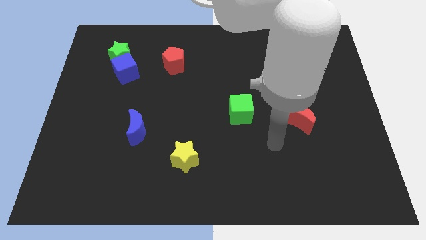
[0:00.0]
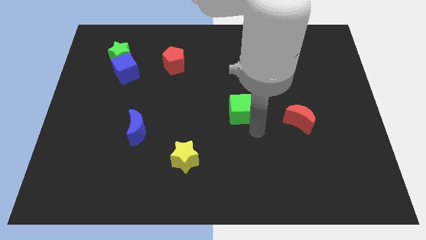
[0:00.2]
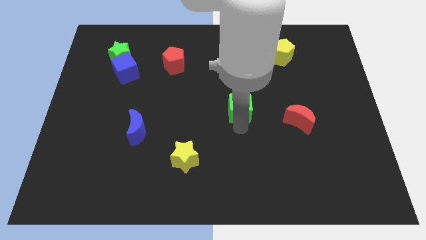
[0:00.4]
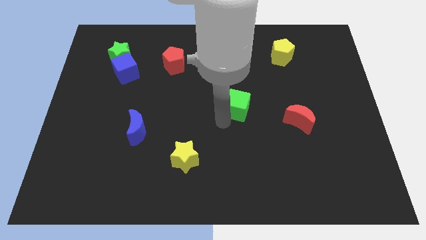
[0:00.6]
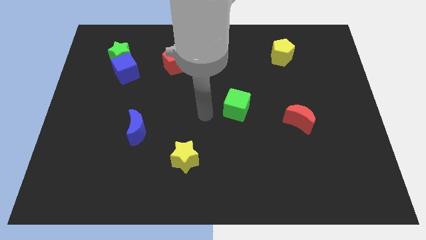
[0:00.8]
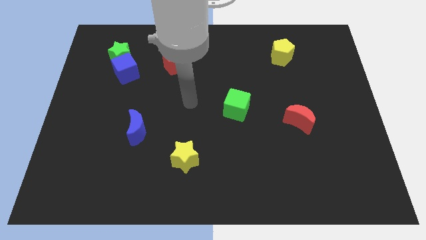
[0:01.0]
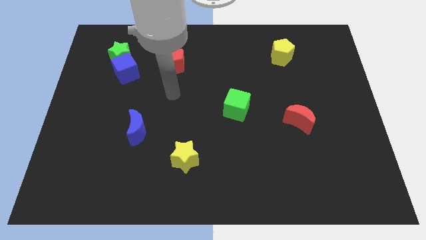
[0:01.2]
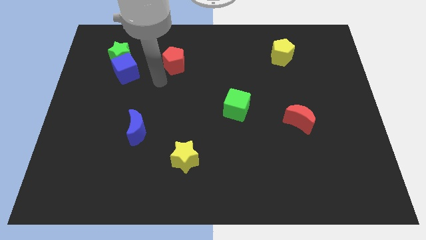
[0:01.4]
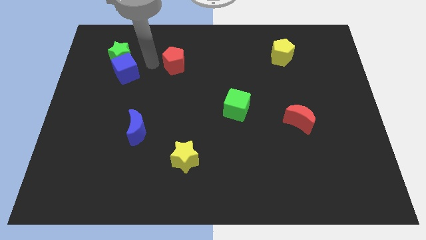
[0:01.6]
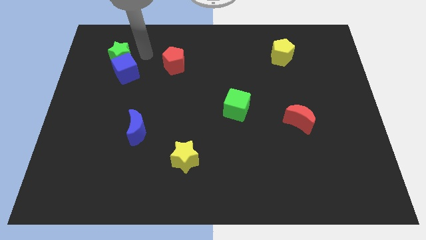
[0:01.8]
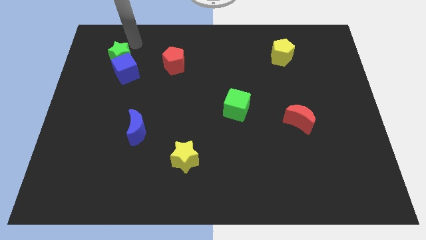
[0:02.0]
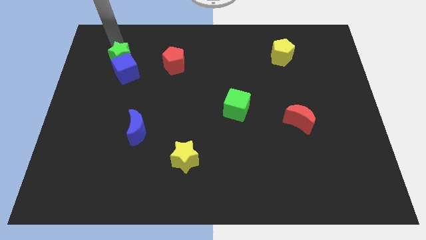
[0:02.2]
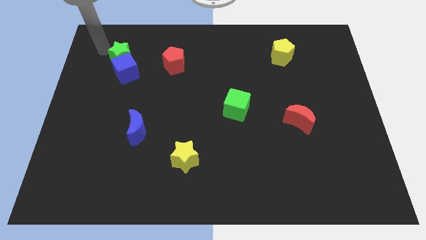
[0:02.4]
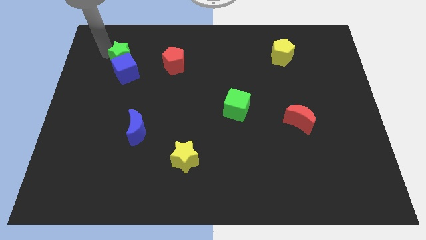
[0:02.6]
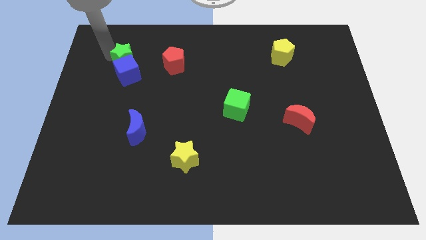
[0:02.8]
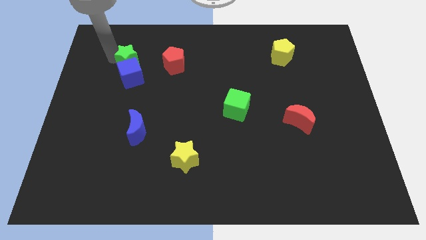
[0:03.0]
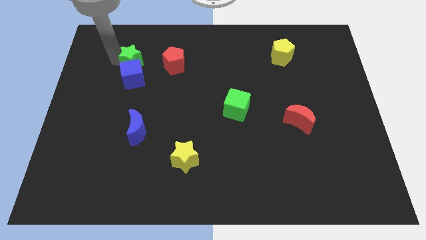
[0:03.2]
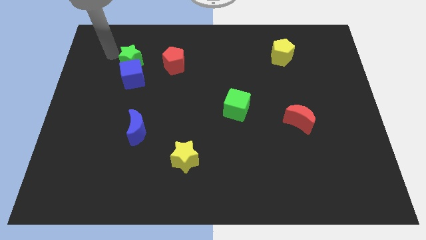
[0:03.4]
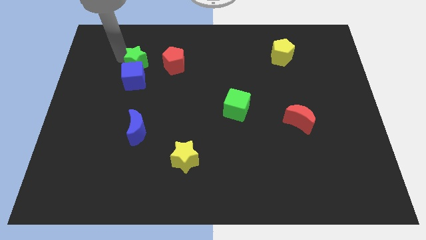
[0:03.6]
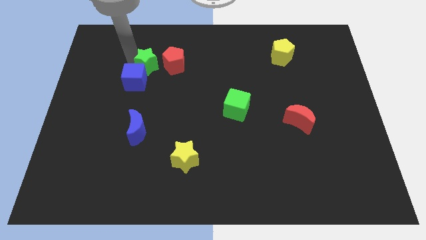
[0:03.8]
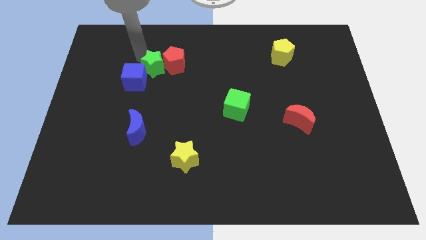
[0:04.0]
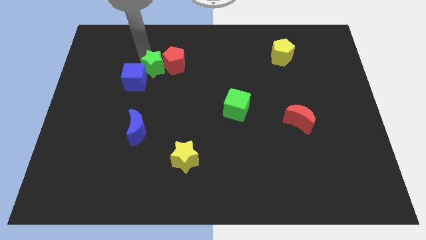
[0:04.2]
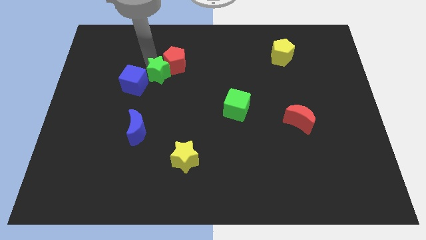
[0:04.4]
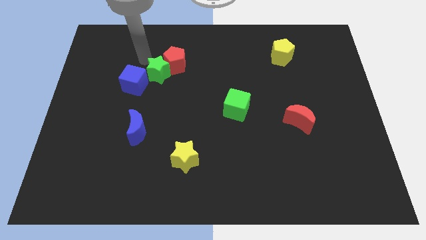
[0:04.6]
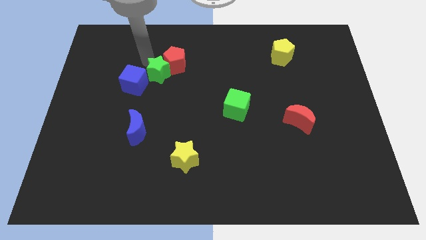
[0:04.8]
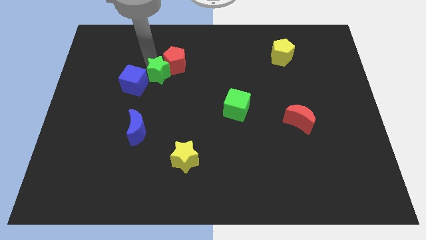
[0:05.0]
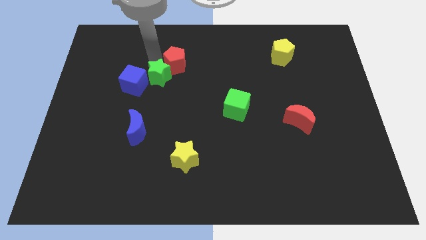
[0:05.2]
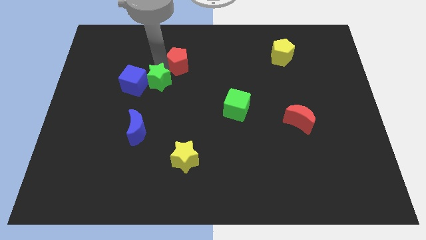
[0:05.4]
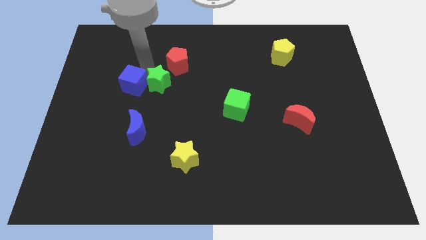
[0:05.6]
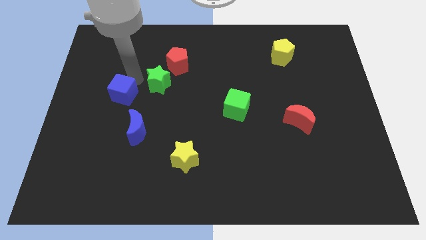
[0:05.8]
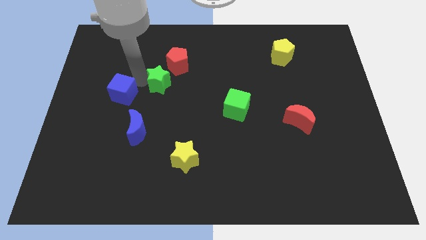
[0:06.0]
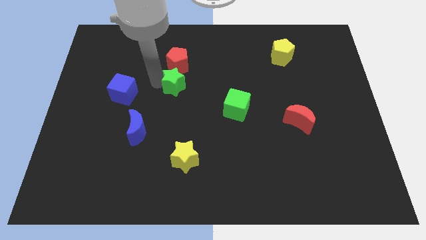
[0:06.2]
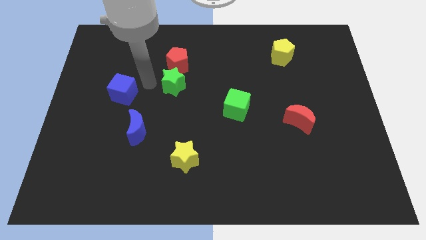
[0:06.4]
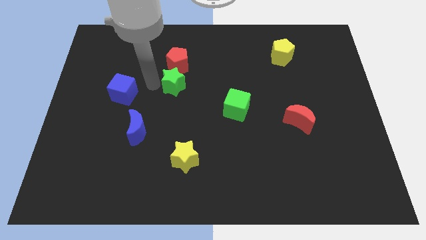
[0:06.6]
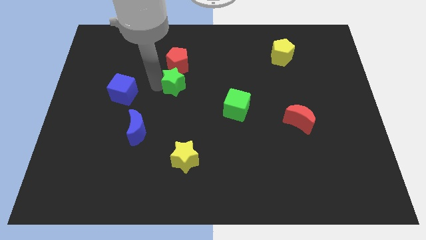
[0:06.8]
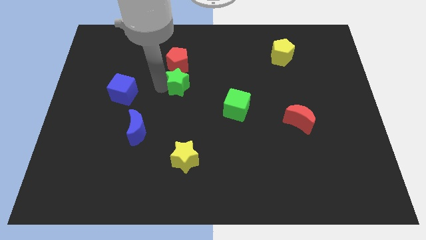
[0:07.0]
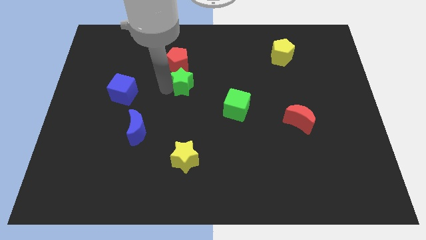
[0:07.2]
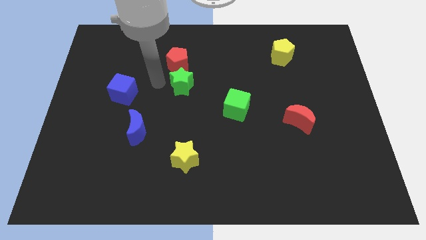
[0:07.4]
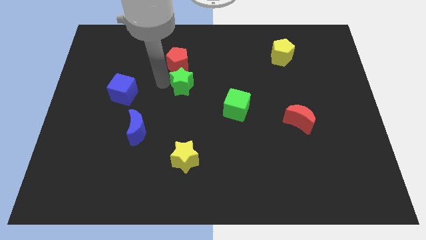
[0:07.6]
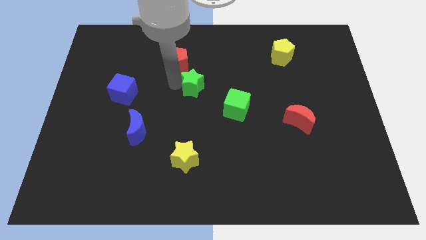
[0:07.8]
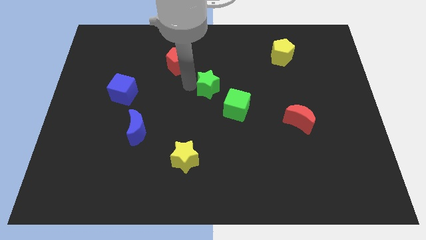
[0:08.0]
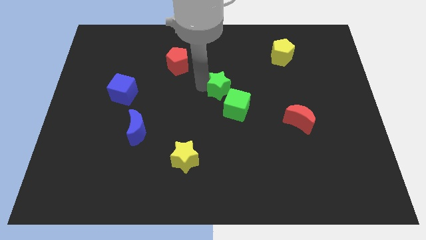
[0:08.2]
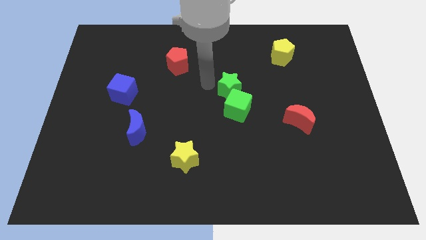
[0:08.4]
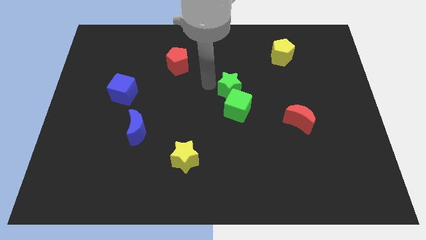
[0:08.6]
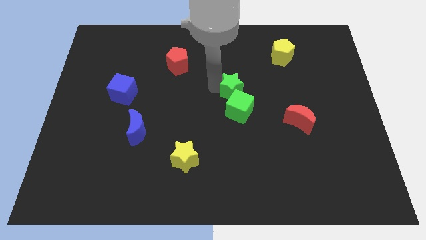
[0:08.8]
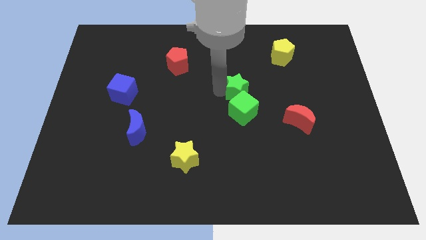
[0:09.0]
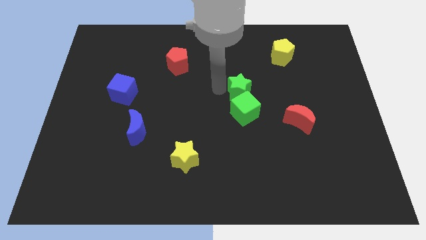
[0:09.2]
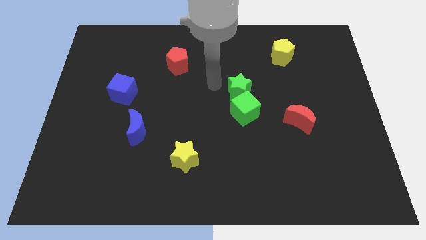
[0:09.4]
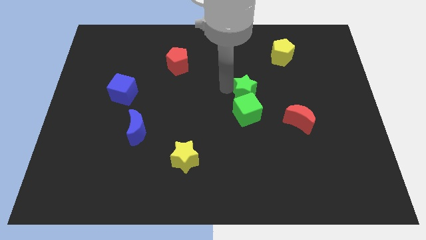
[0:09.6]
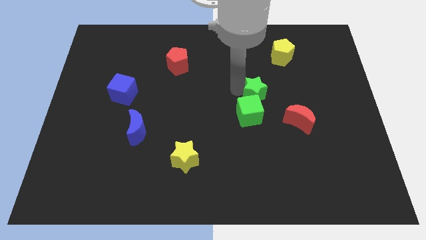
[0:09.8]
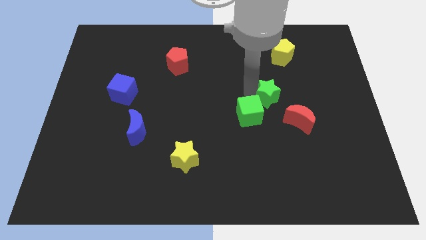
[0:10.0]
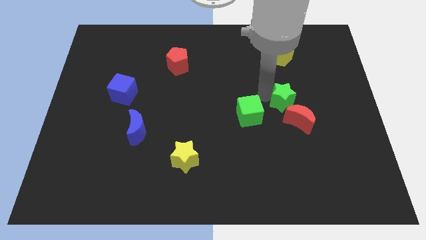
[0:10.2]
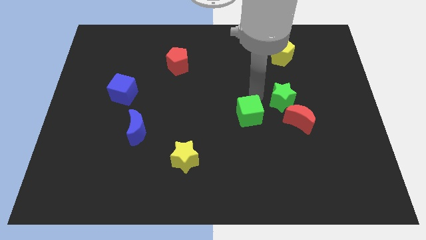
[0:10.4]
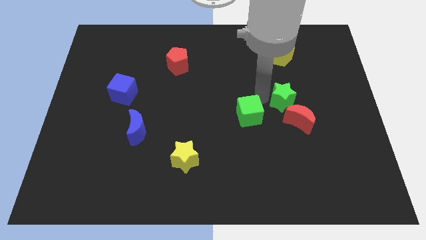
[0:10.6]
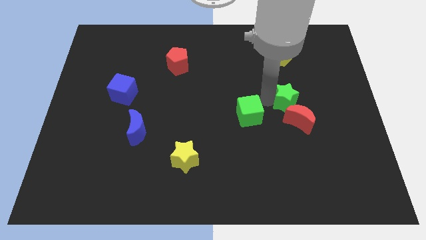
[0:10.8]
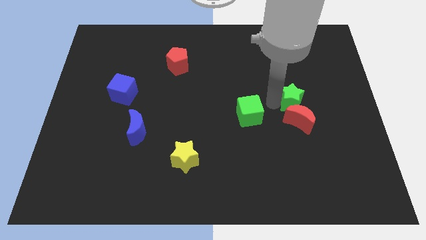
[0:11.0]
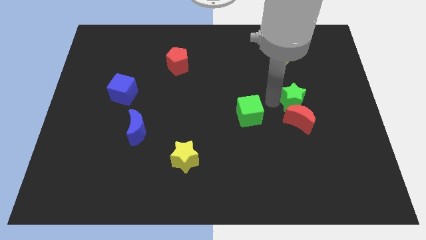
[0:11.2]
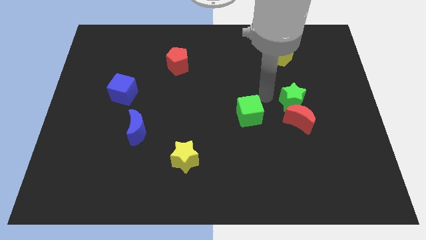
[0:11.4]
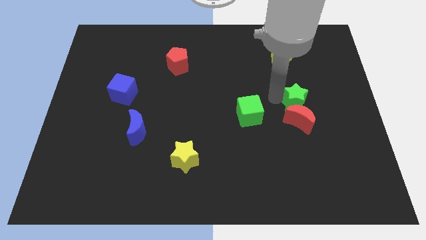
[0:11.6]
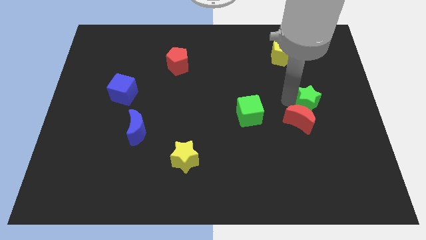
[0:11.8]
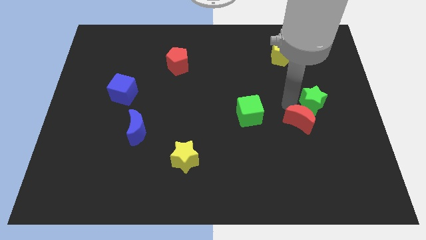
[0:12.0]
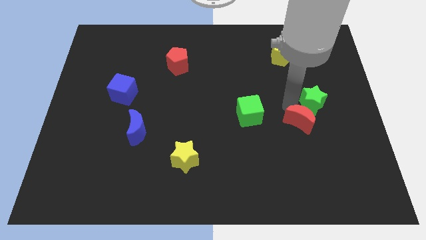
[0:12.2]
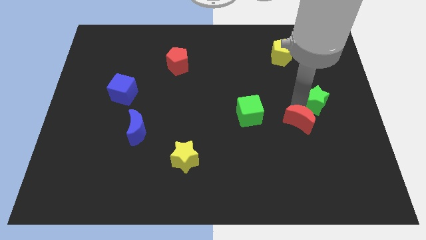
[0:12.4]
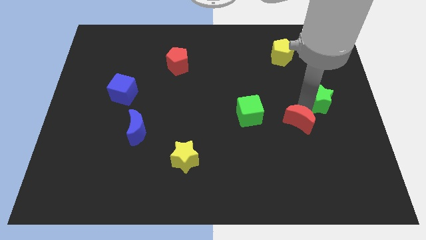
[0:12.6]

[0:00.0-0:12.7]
put the green star to the right side of the board
